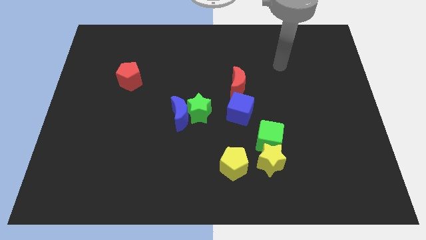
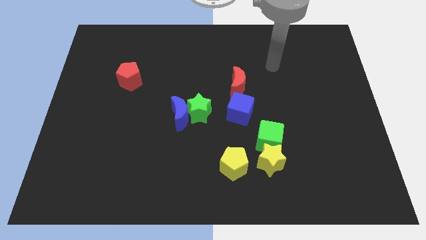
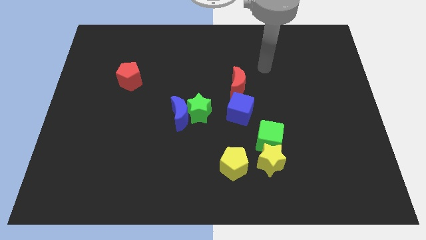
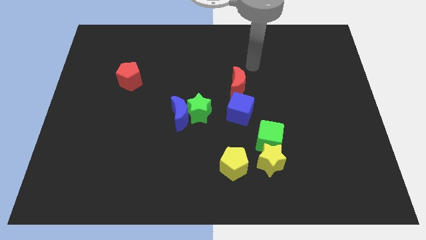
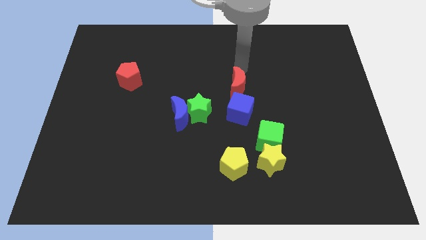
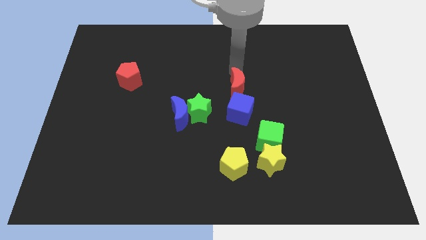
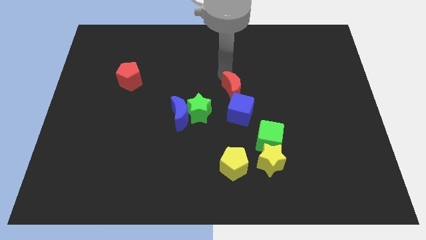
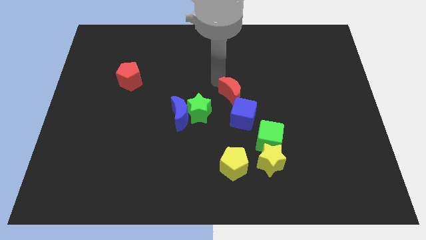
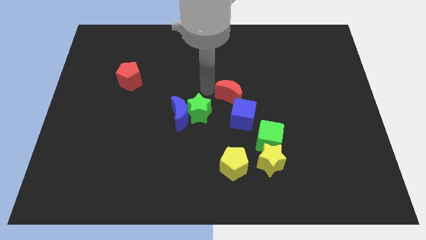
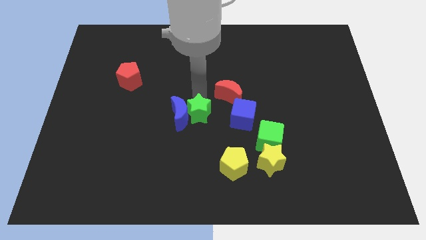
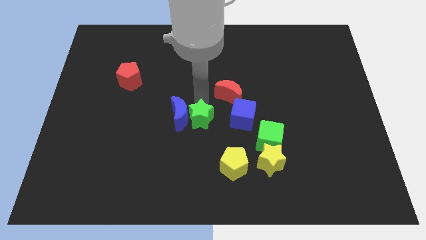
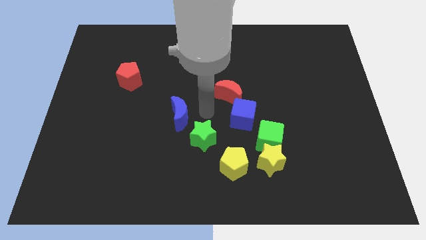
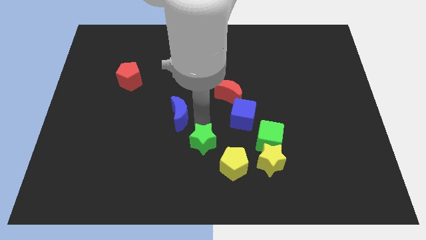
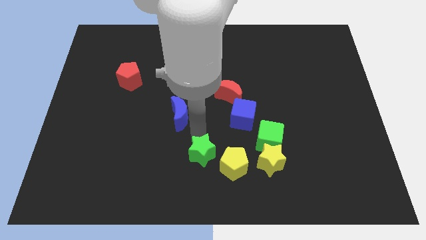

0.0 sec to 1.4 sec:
separate the blue moon from the green star

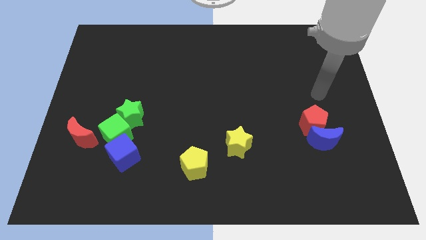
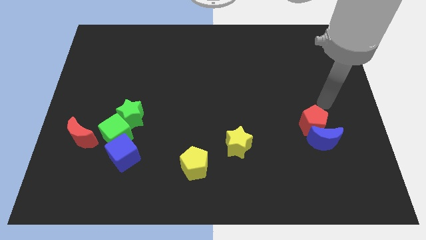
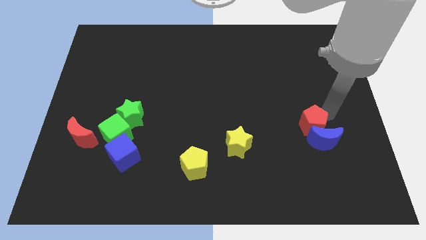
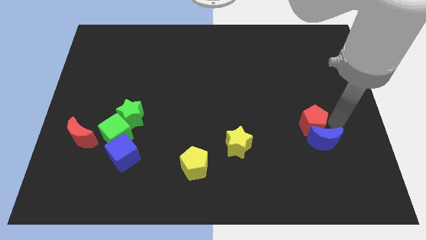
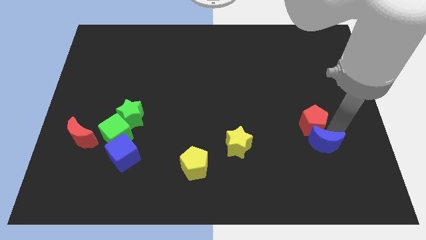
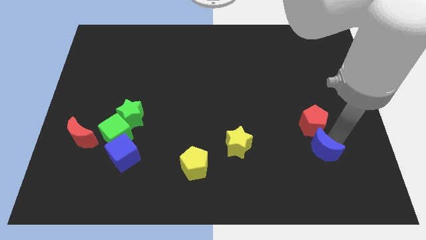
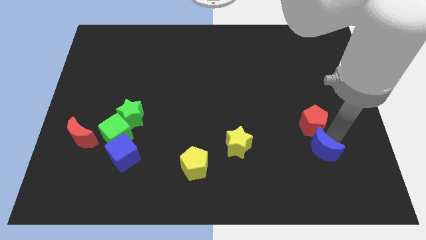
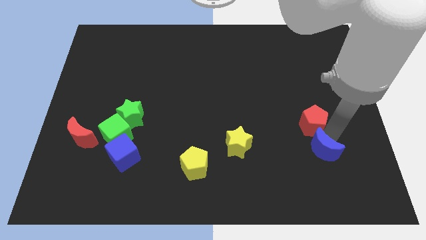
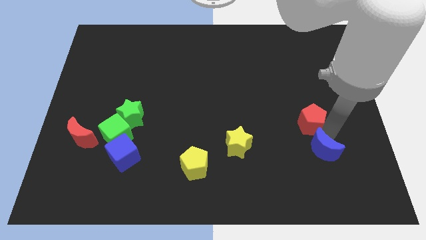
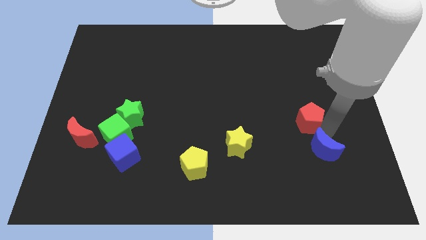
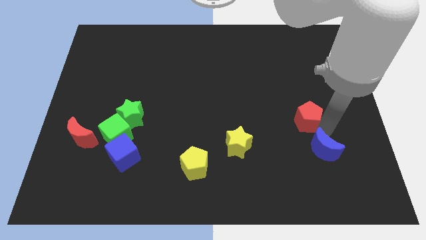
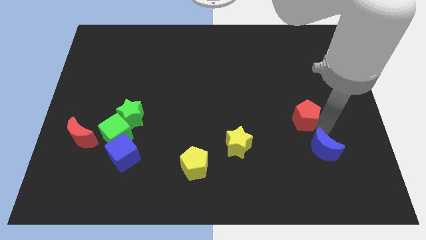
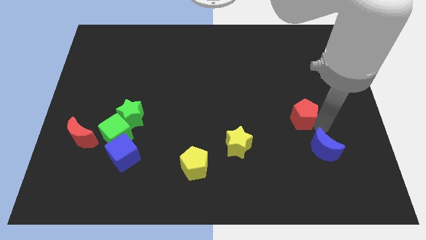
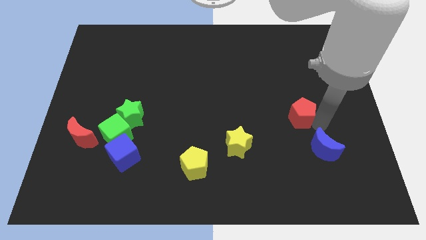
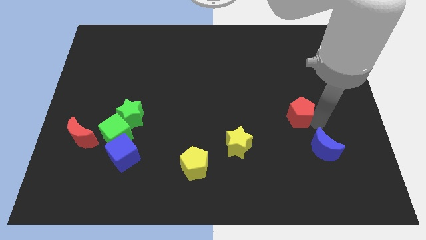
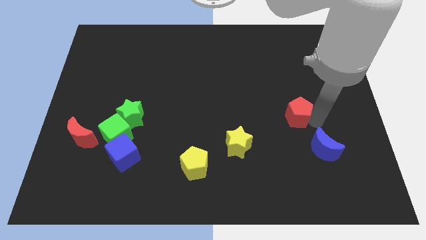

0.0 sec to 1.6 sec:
pull the red pentagon apart from the blue moon

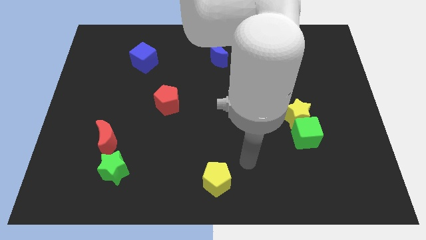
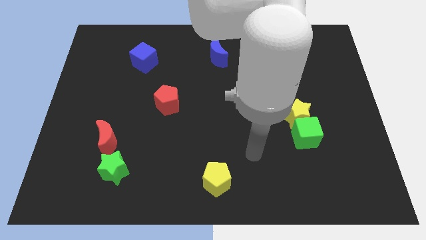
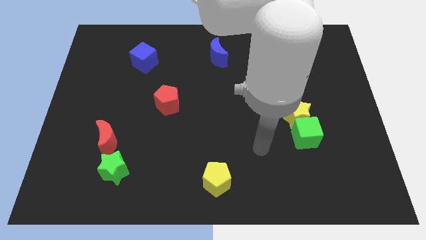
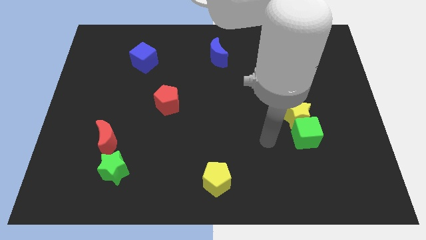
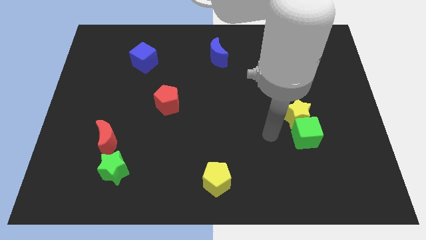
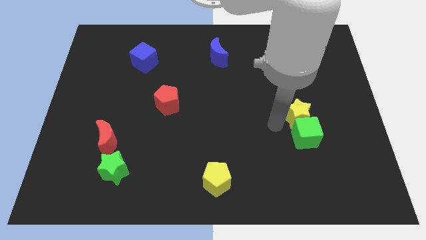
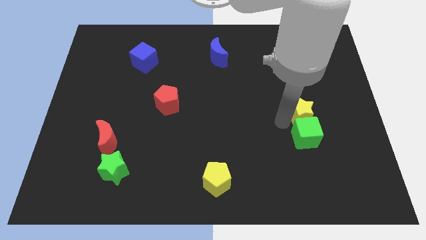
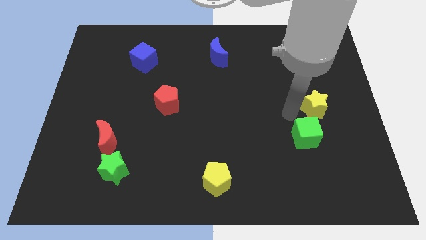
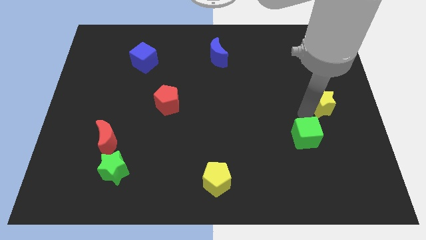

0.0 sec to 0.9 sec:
pull the green cube apart from the yellow star

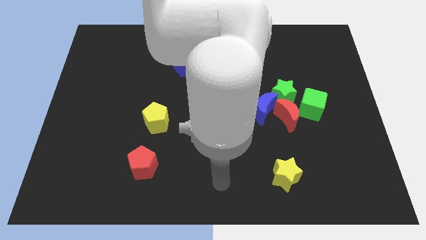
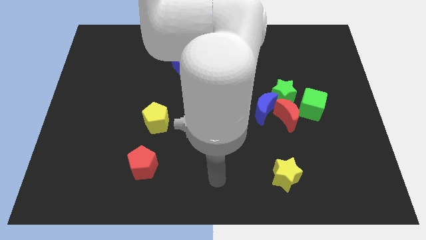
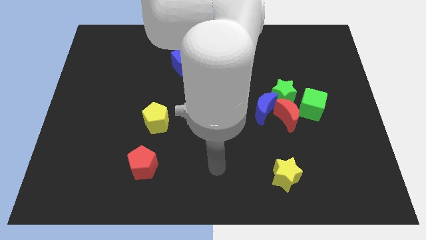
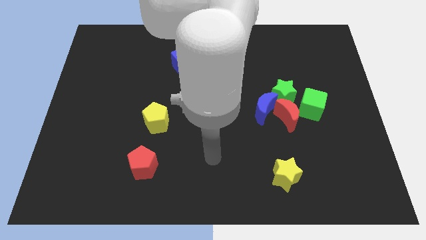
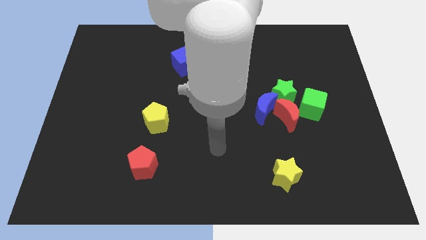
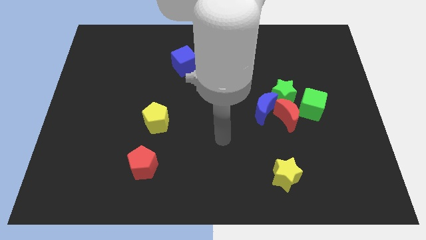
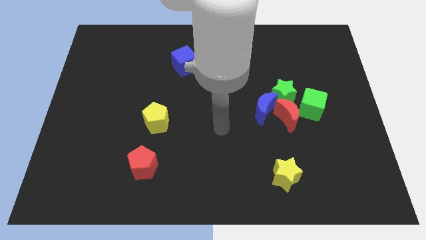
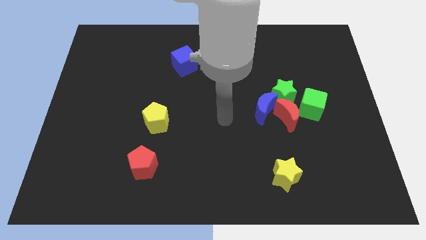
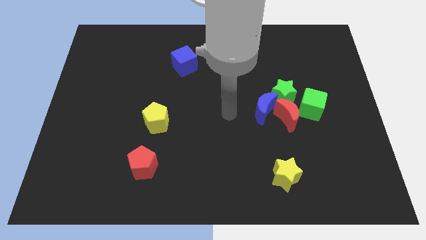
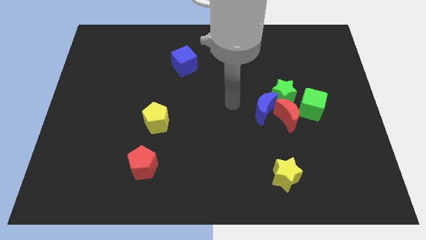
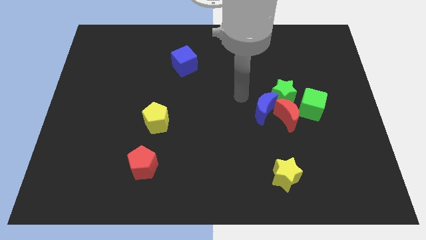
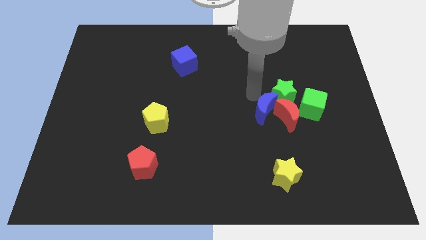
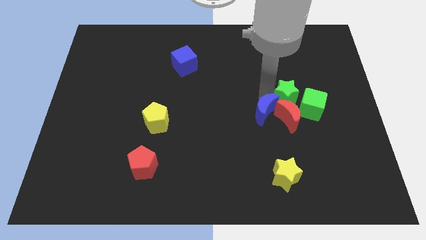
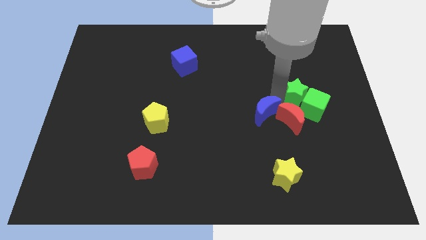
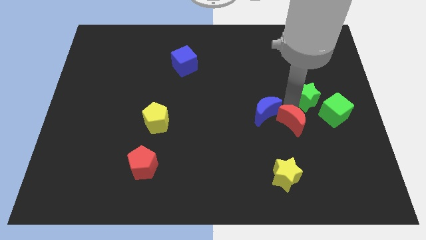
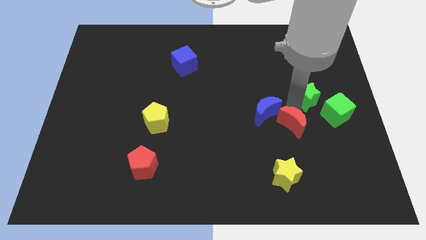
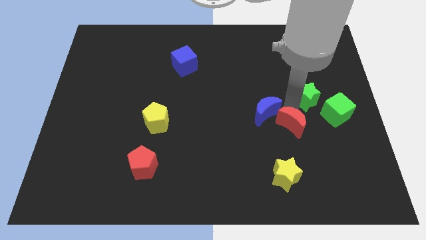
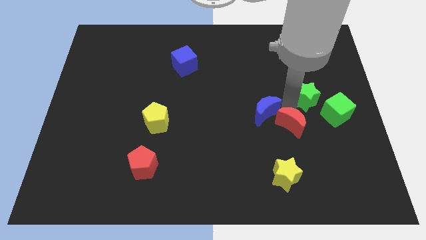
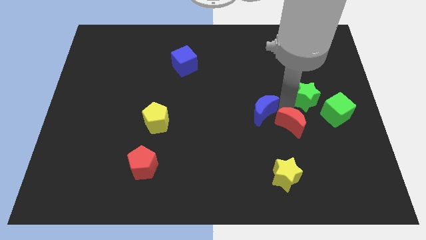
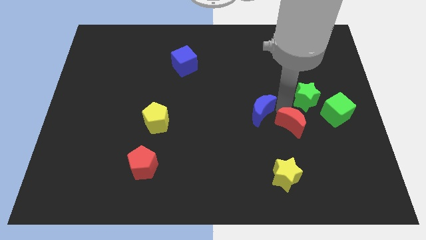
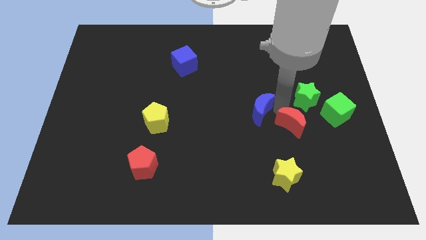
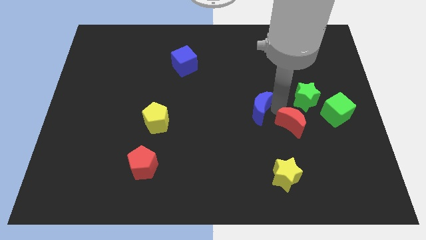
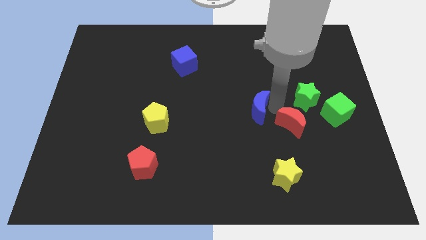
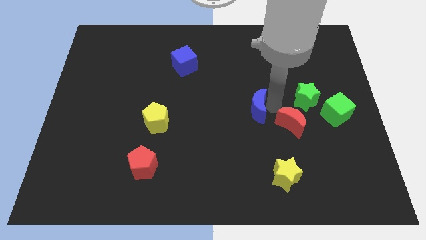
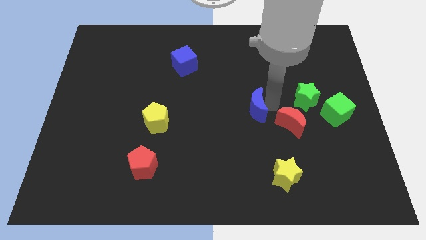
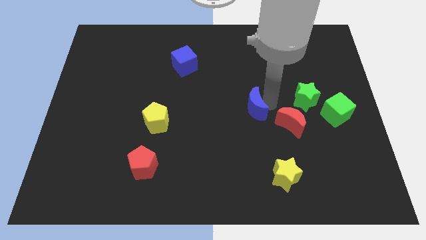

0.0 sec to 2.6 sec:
separate the blue moon from the red moon and green star

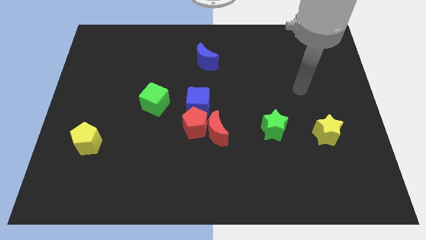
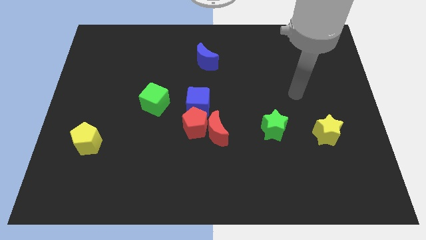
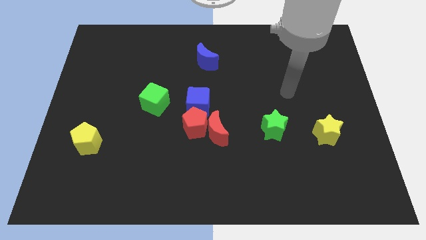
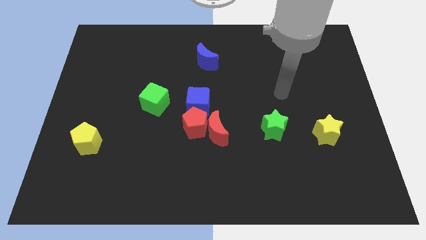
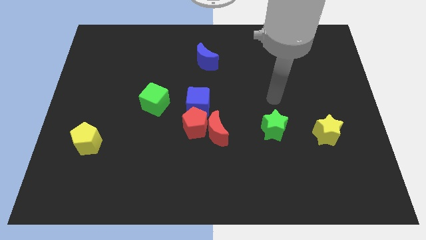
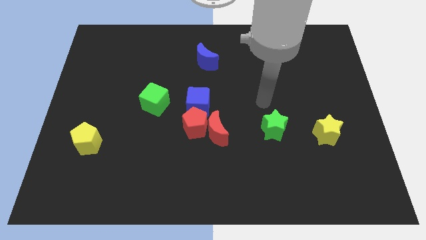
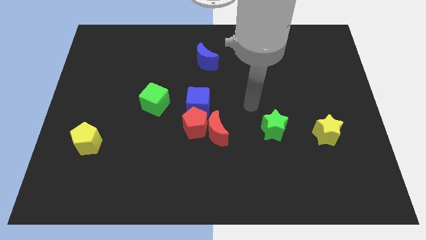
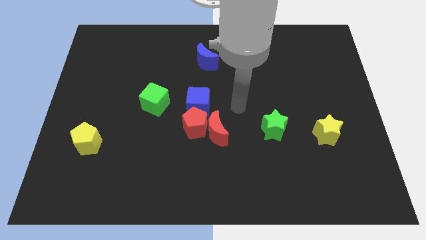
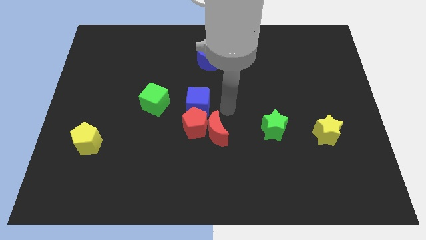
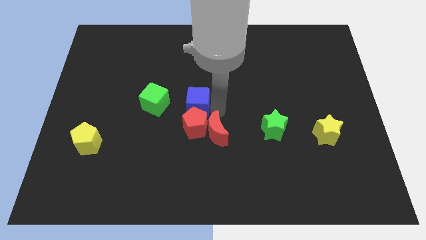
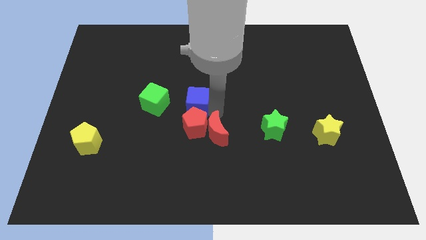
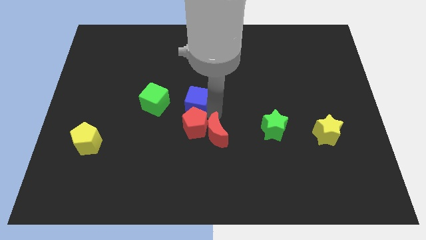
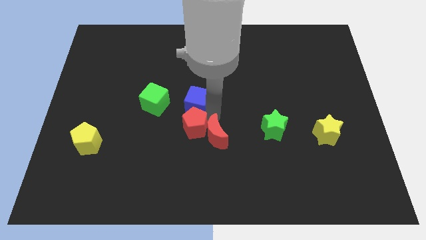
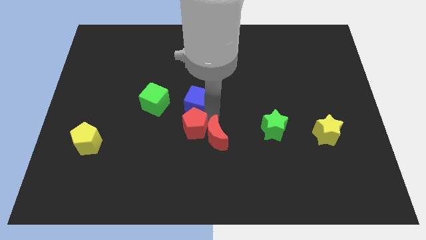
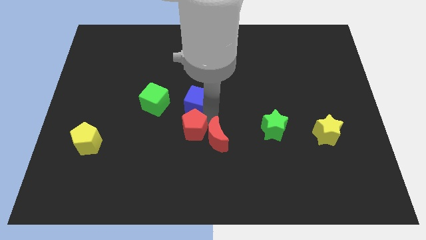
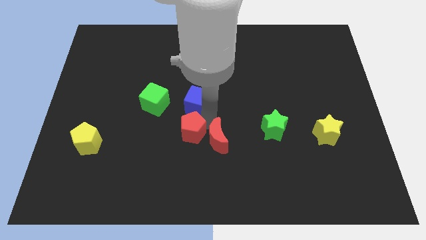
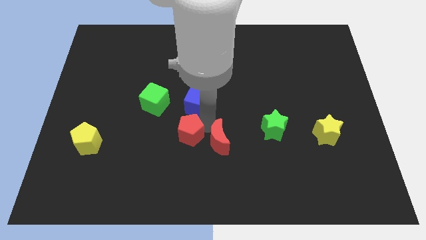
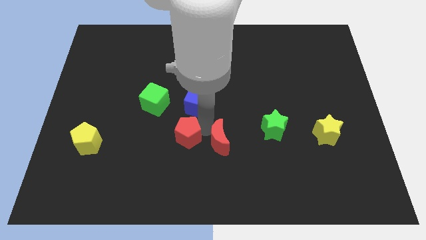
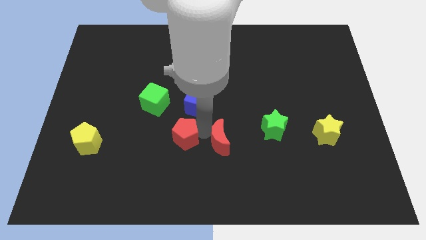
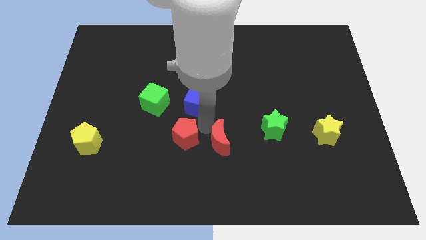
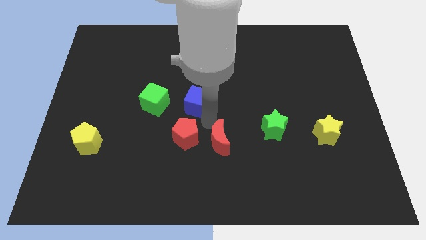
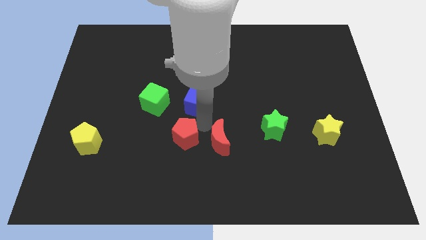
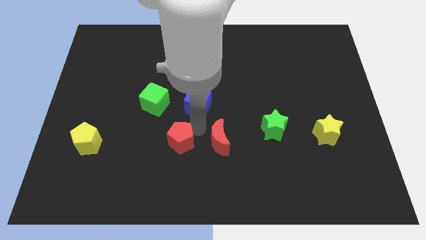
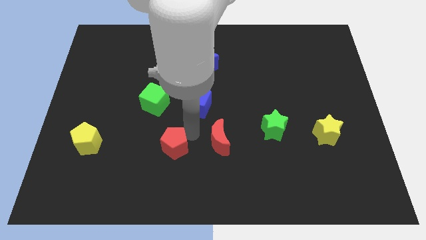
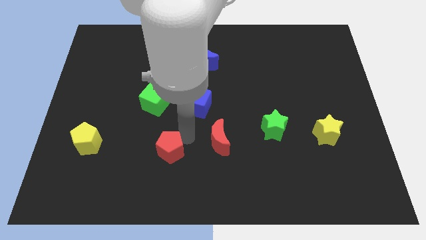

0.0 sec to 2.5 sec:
move the red pentagon away from the red moon and blue cube

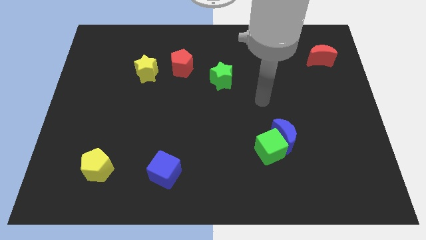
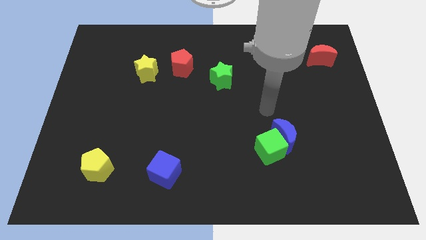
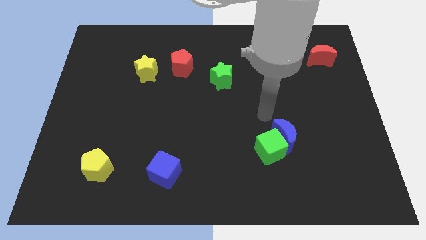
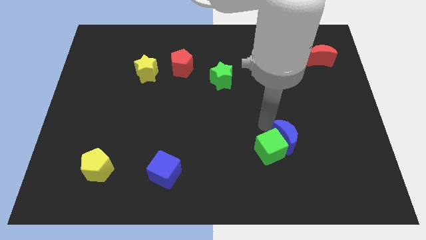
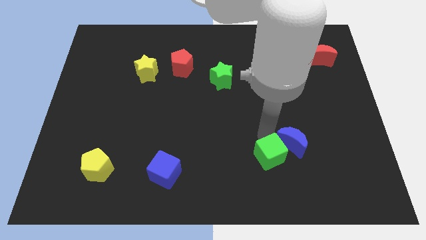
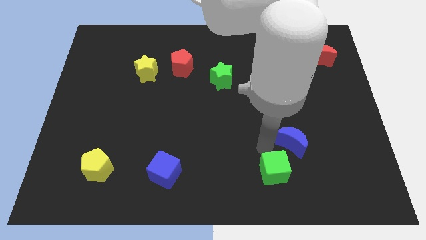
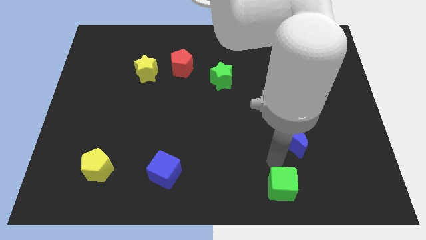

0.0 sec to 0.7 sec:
separate the blue moon from the green cube
